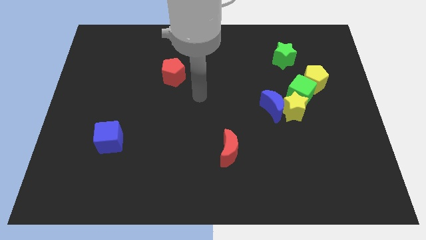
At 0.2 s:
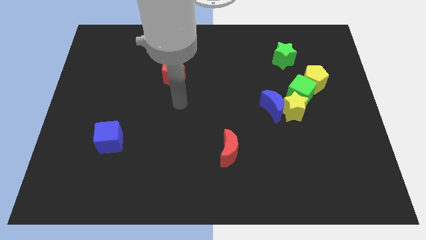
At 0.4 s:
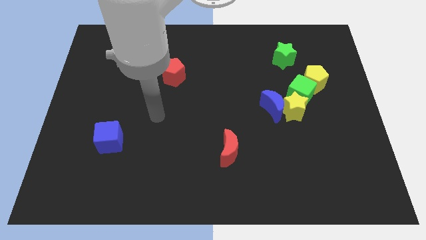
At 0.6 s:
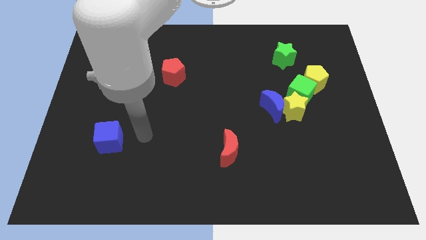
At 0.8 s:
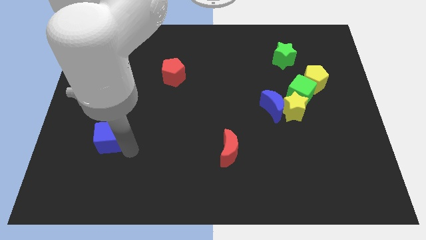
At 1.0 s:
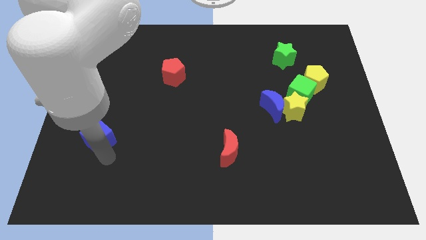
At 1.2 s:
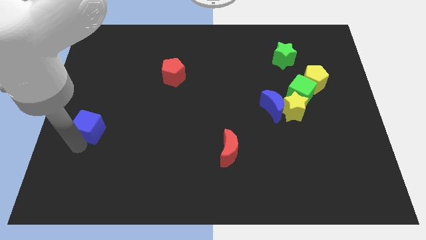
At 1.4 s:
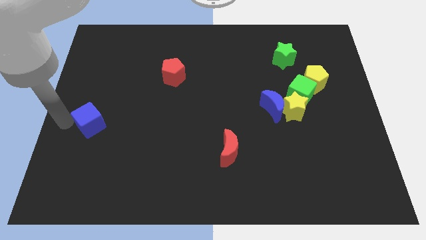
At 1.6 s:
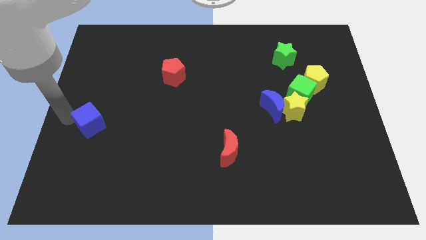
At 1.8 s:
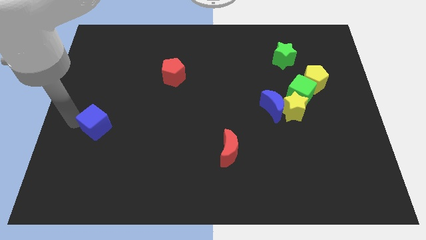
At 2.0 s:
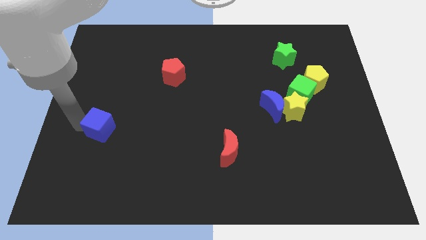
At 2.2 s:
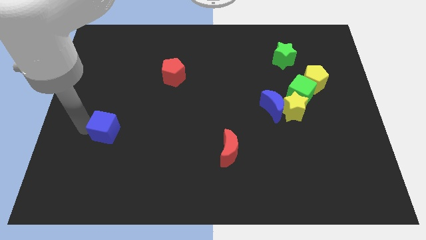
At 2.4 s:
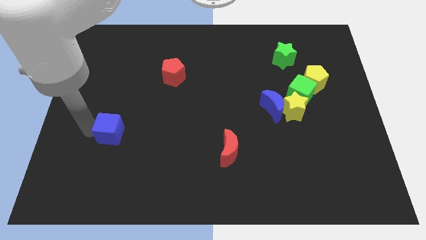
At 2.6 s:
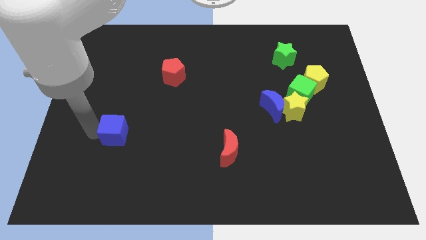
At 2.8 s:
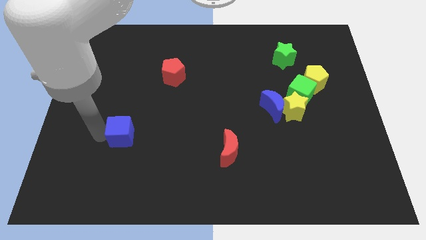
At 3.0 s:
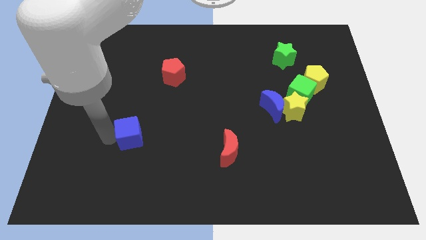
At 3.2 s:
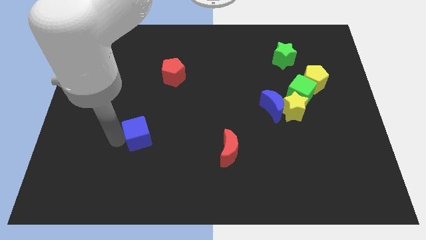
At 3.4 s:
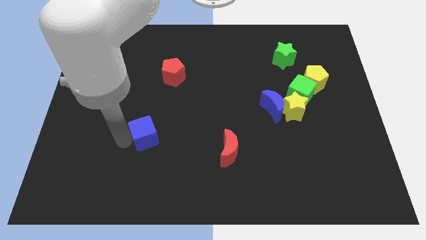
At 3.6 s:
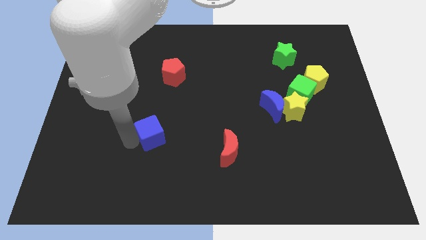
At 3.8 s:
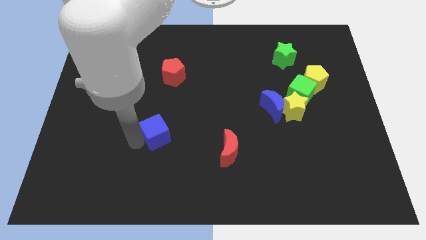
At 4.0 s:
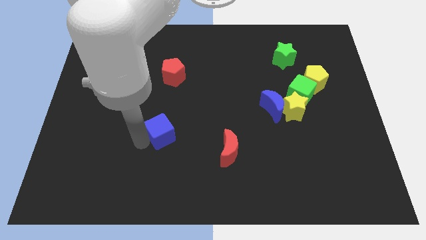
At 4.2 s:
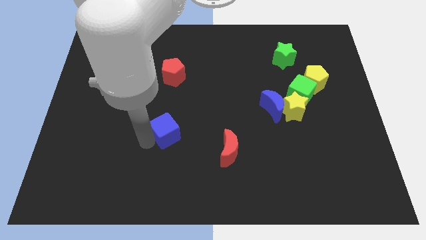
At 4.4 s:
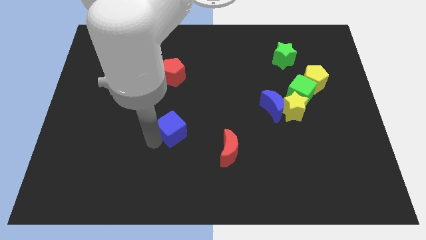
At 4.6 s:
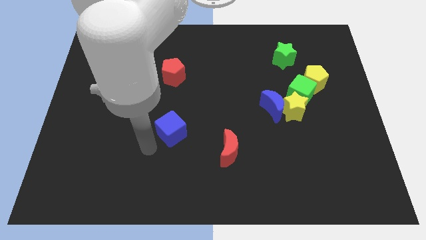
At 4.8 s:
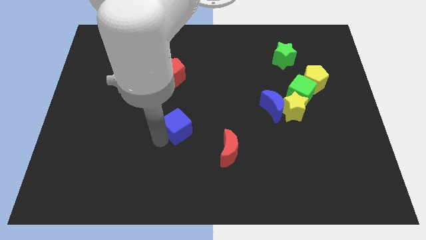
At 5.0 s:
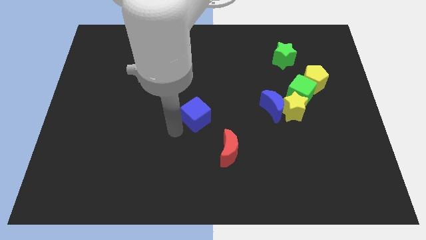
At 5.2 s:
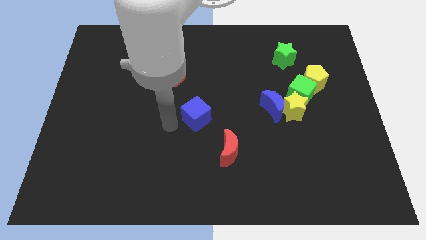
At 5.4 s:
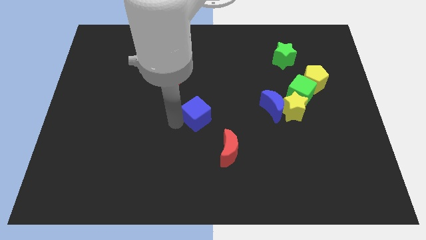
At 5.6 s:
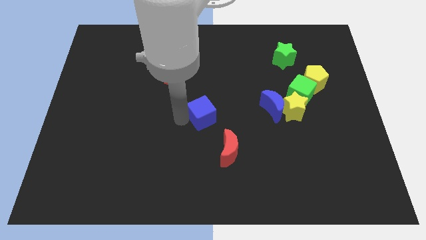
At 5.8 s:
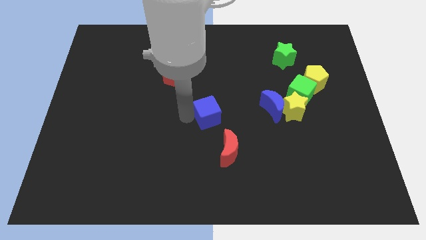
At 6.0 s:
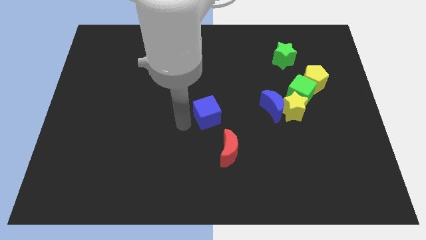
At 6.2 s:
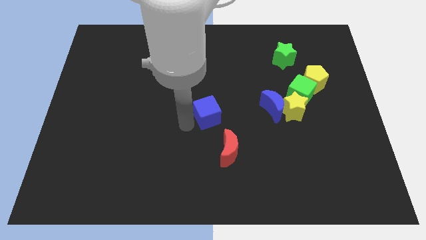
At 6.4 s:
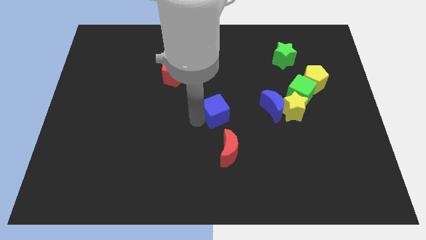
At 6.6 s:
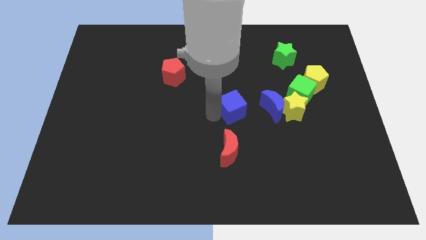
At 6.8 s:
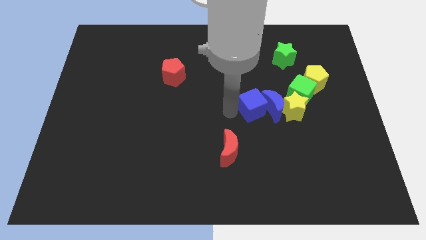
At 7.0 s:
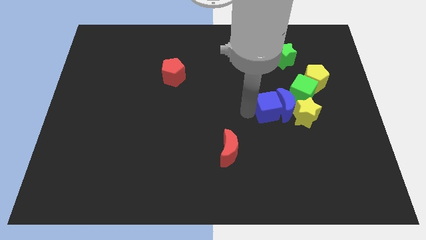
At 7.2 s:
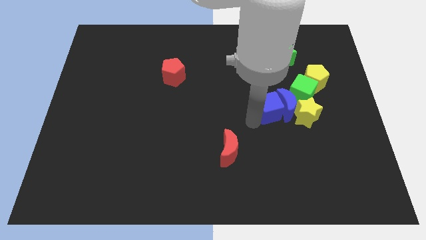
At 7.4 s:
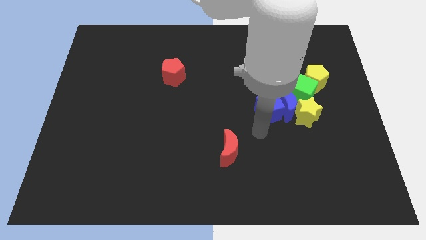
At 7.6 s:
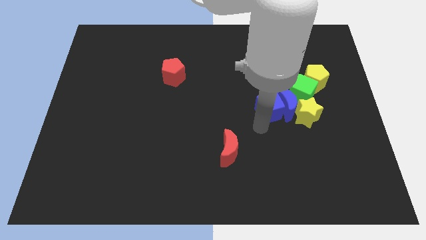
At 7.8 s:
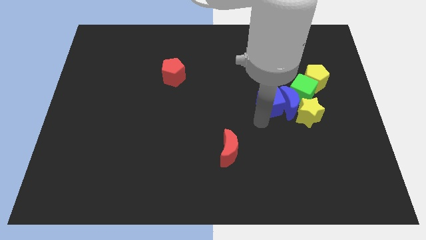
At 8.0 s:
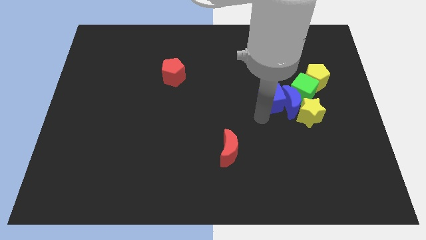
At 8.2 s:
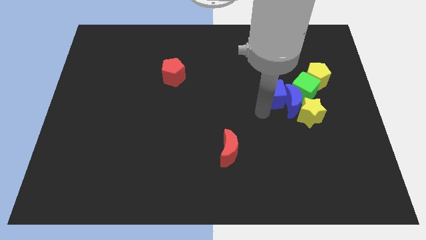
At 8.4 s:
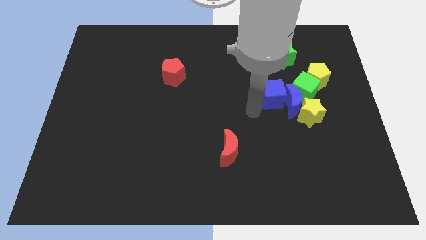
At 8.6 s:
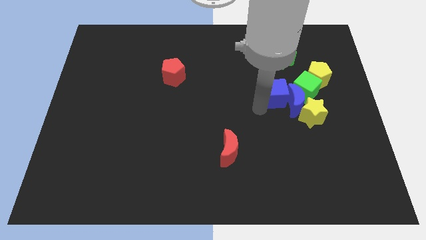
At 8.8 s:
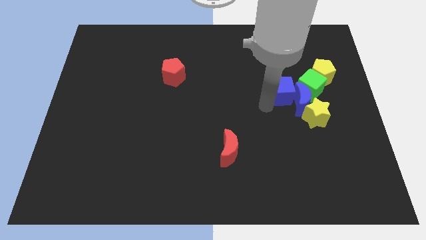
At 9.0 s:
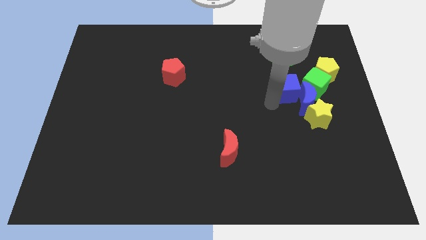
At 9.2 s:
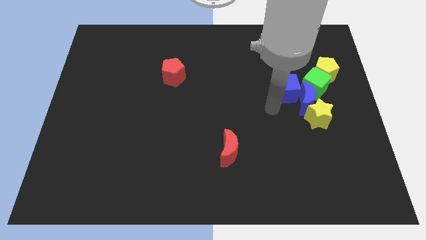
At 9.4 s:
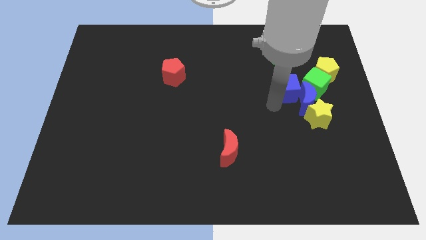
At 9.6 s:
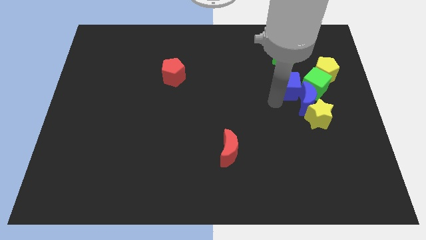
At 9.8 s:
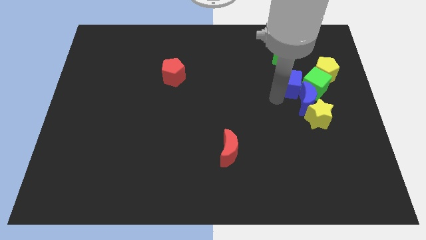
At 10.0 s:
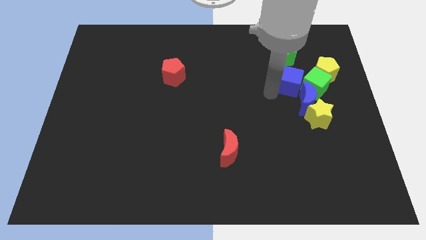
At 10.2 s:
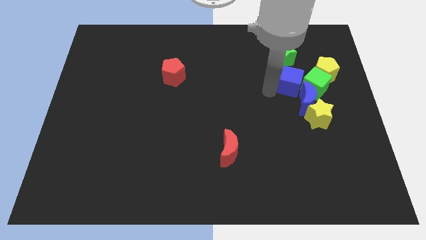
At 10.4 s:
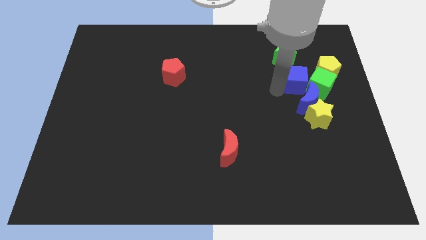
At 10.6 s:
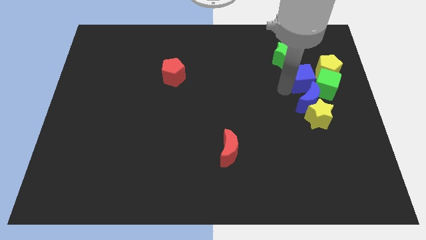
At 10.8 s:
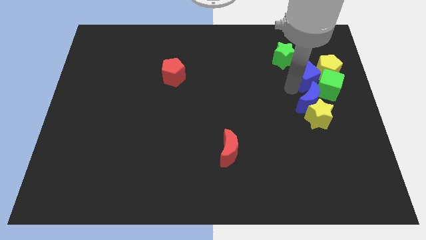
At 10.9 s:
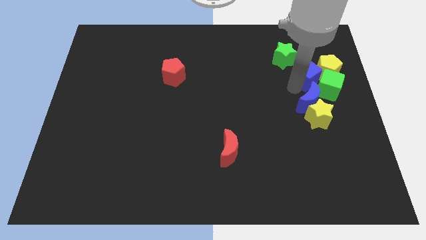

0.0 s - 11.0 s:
slide the blue cube towards the yellow pentagon

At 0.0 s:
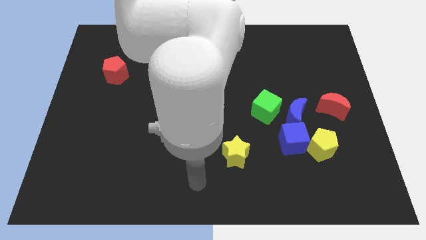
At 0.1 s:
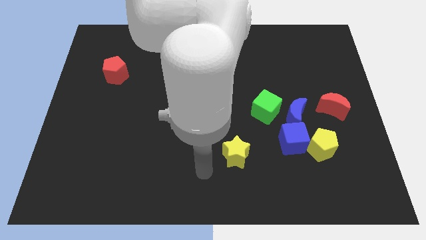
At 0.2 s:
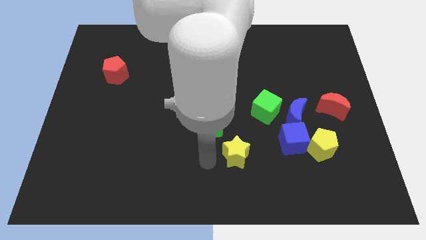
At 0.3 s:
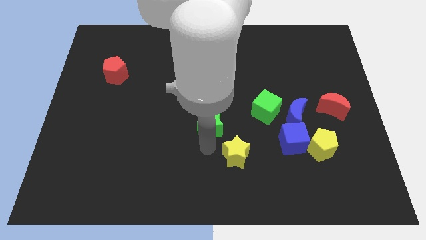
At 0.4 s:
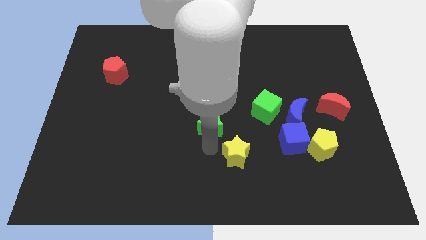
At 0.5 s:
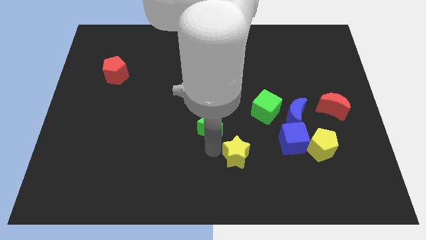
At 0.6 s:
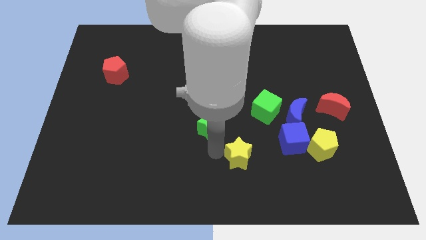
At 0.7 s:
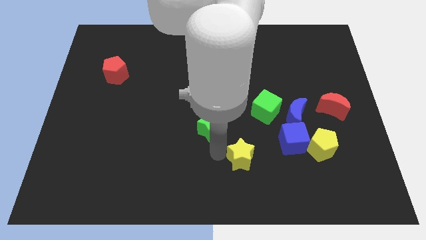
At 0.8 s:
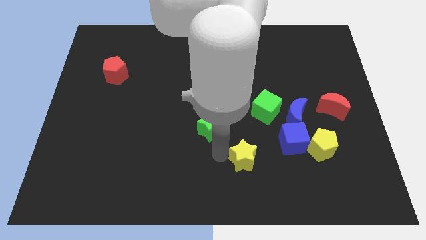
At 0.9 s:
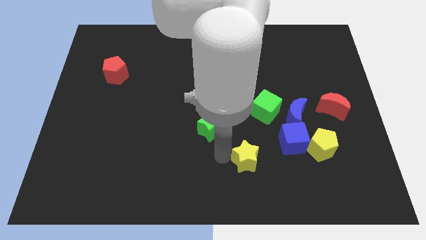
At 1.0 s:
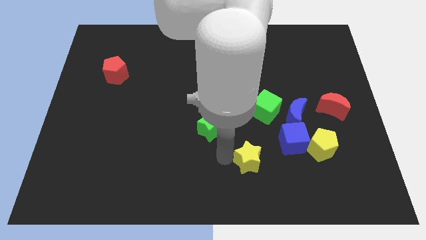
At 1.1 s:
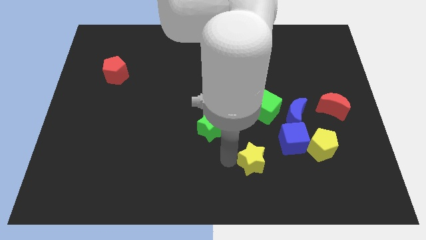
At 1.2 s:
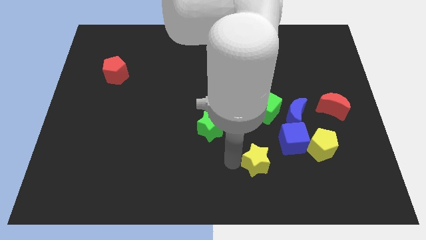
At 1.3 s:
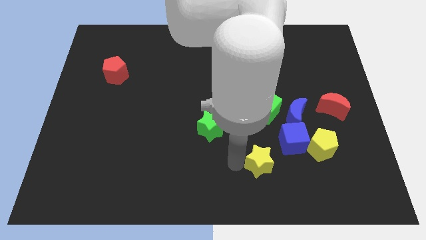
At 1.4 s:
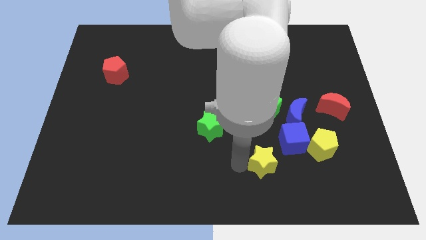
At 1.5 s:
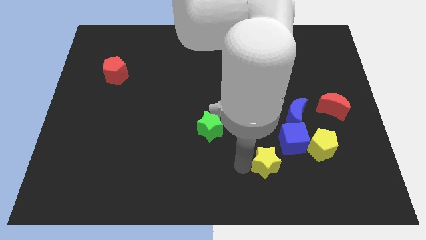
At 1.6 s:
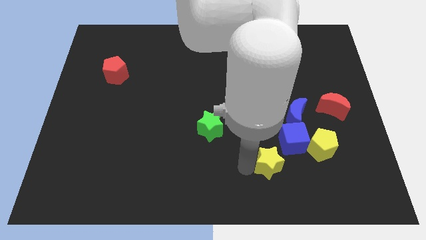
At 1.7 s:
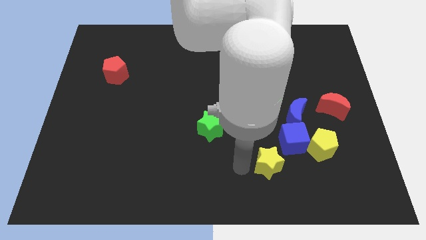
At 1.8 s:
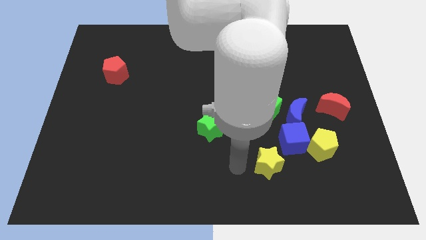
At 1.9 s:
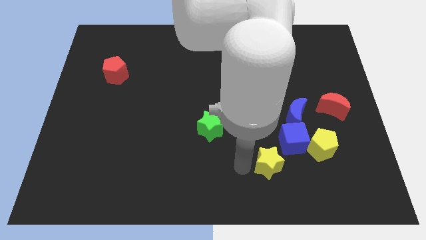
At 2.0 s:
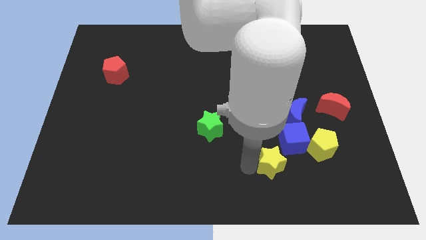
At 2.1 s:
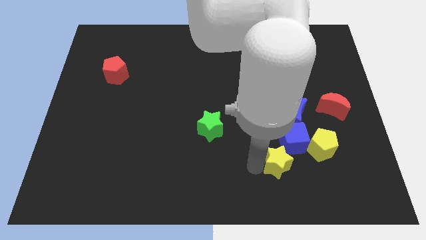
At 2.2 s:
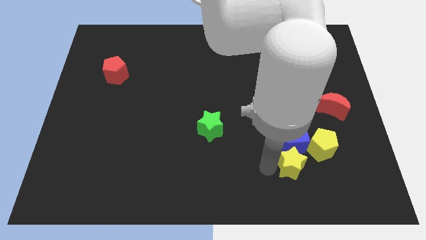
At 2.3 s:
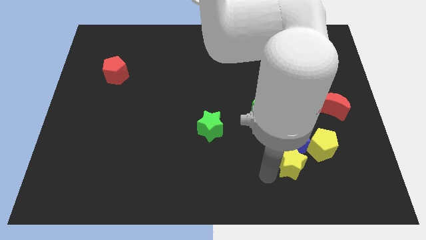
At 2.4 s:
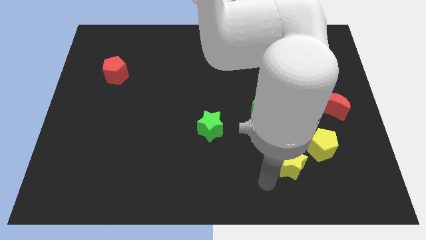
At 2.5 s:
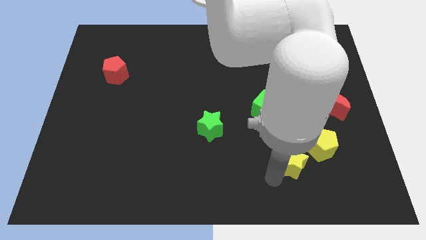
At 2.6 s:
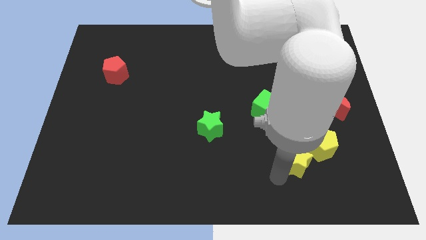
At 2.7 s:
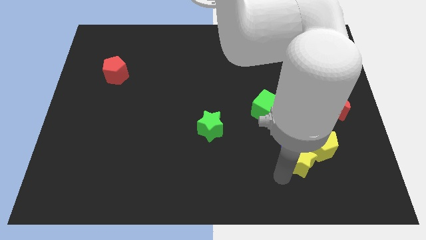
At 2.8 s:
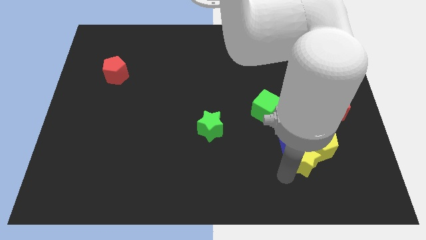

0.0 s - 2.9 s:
put the yellow star next to the yellow pentagon
